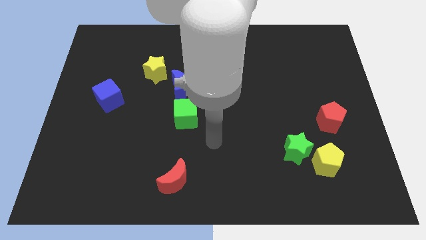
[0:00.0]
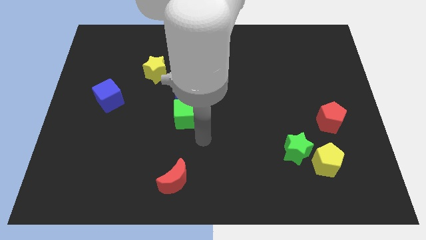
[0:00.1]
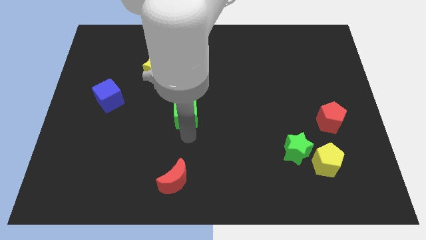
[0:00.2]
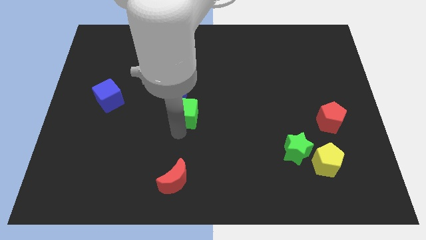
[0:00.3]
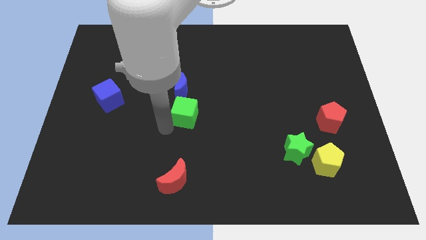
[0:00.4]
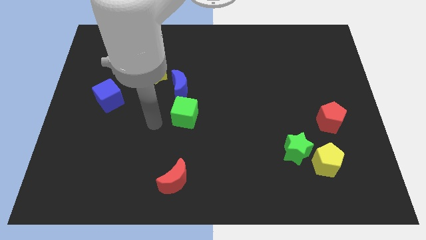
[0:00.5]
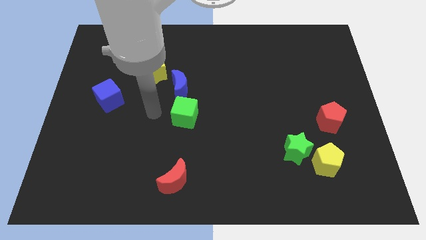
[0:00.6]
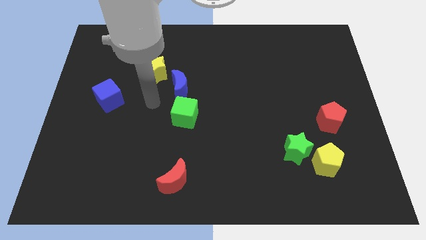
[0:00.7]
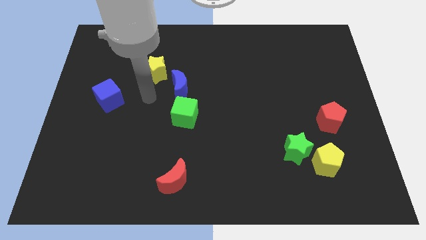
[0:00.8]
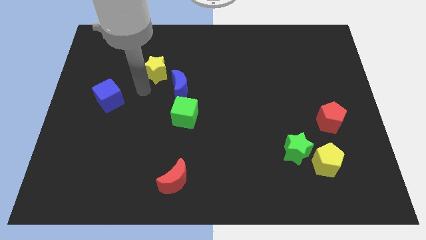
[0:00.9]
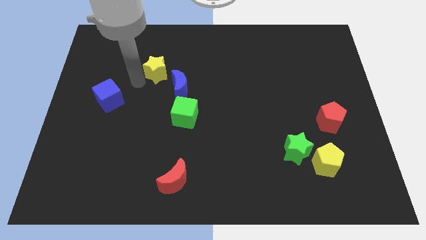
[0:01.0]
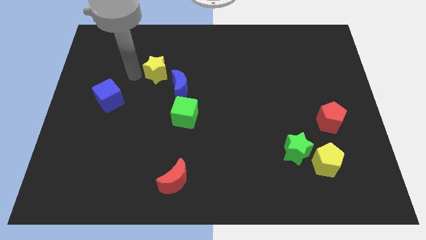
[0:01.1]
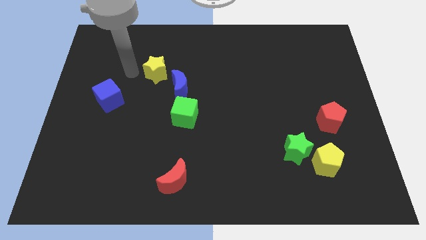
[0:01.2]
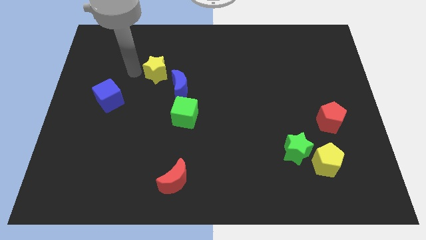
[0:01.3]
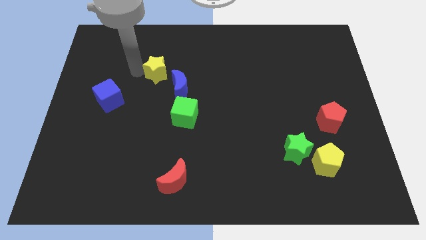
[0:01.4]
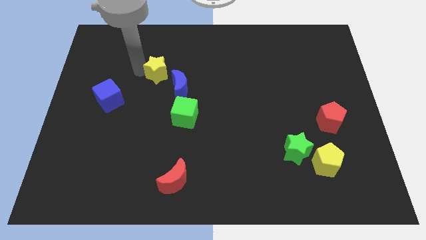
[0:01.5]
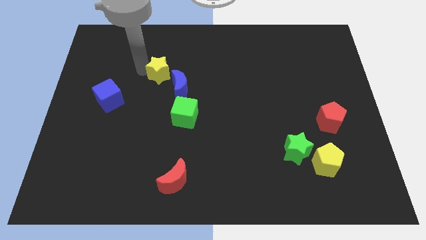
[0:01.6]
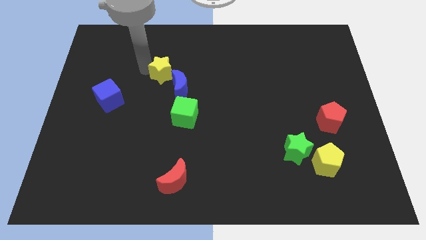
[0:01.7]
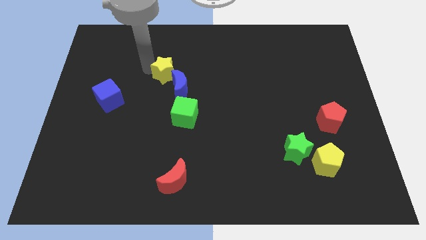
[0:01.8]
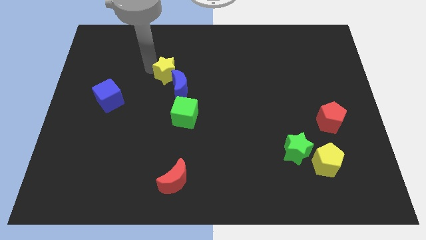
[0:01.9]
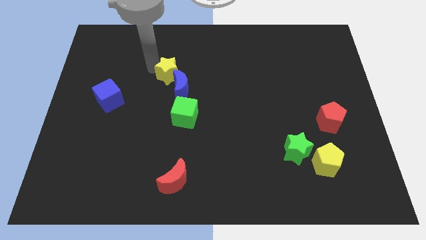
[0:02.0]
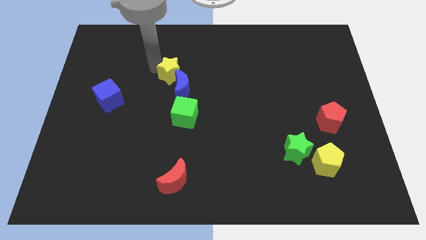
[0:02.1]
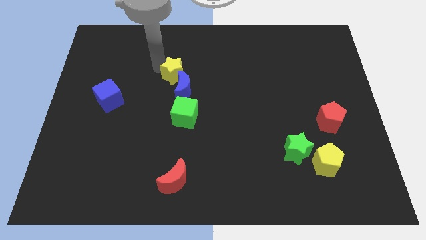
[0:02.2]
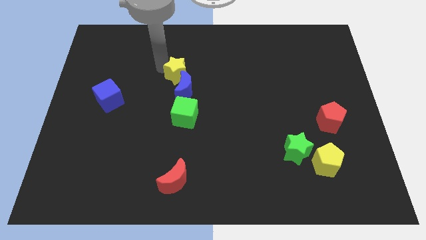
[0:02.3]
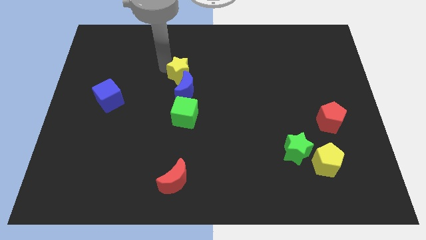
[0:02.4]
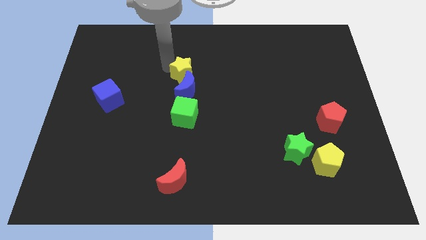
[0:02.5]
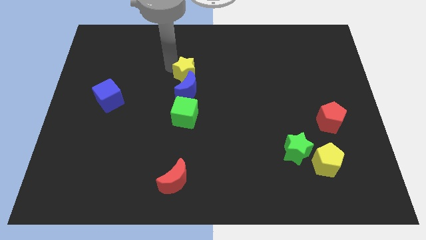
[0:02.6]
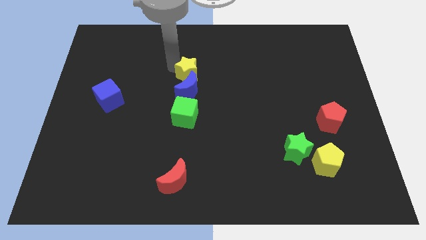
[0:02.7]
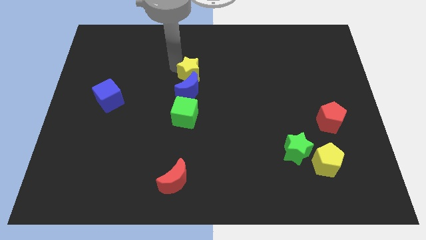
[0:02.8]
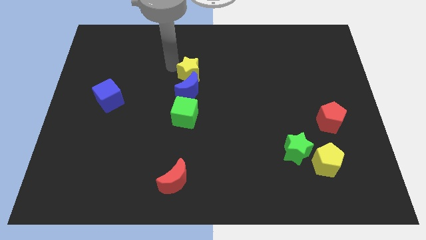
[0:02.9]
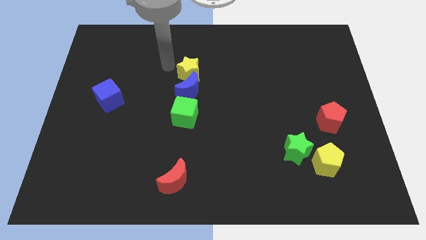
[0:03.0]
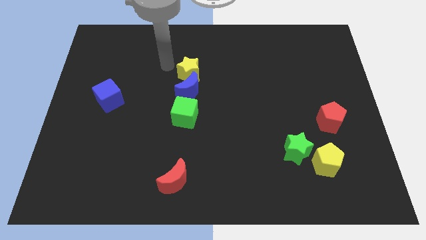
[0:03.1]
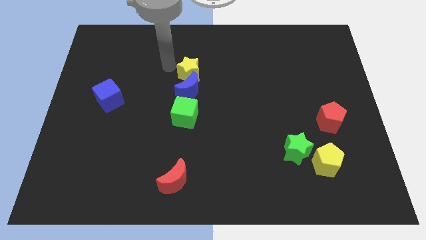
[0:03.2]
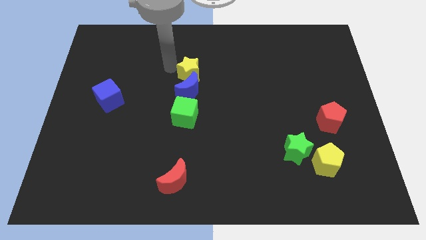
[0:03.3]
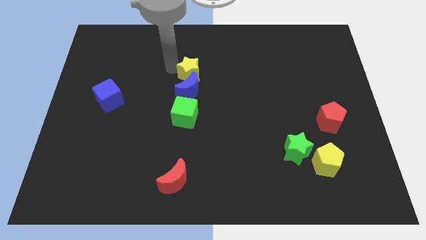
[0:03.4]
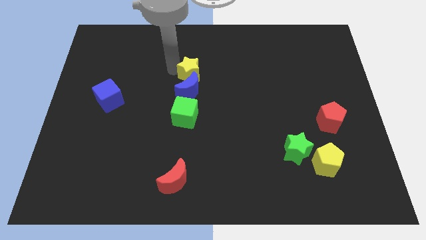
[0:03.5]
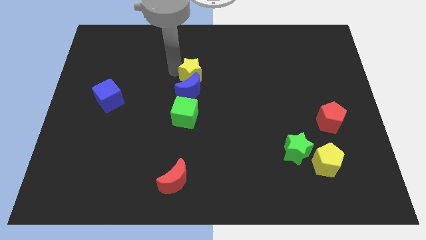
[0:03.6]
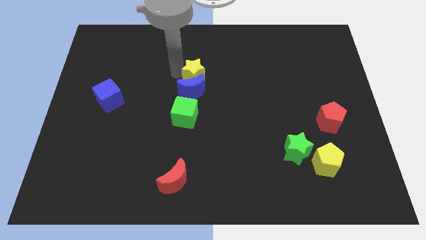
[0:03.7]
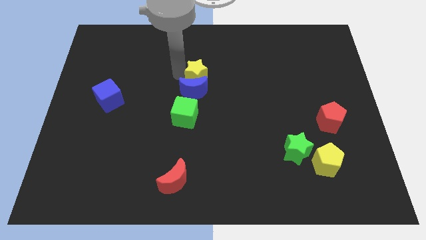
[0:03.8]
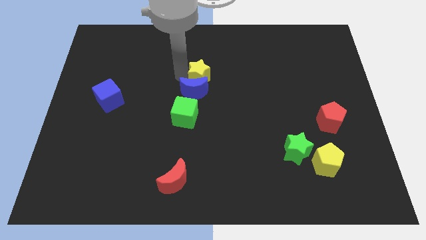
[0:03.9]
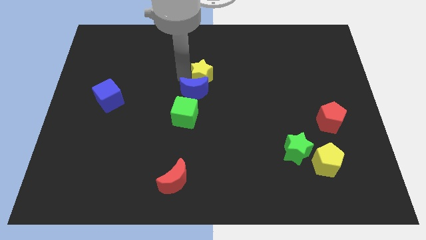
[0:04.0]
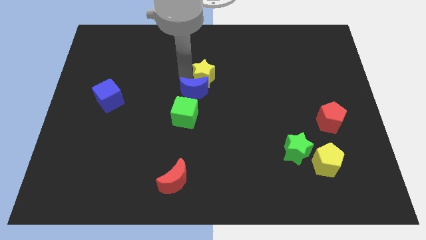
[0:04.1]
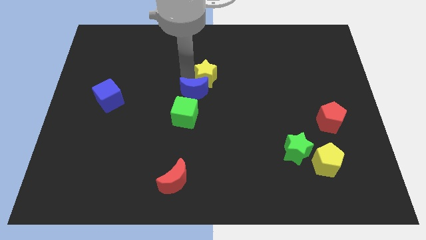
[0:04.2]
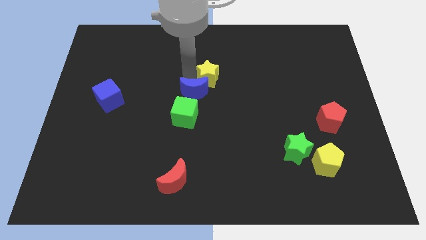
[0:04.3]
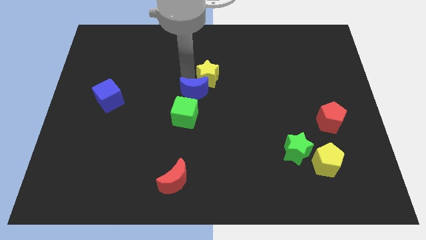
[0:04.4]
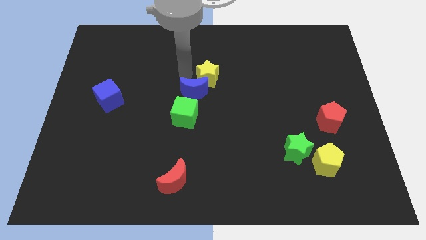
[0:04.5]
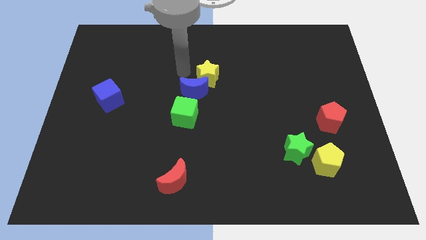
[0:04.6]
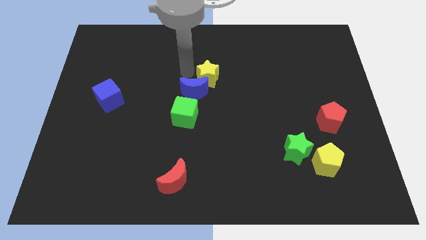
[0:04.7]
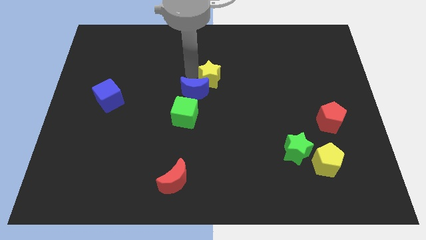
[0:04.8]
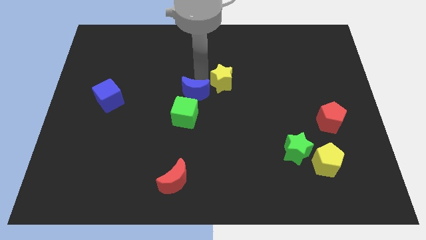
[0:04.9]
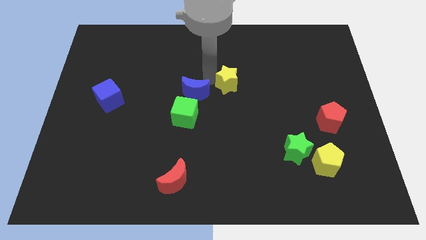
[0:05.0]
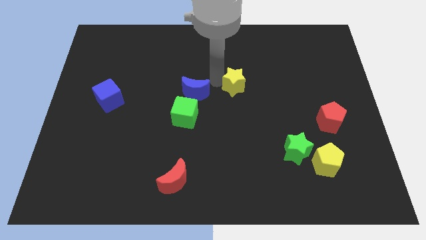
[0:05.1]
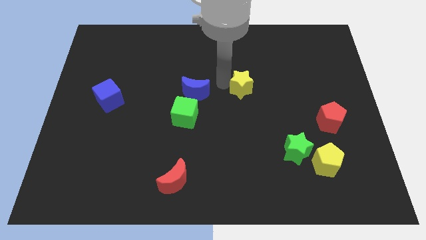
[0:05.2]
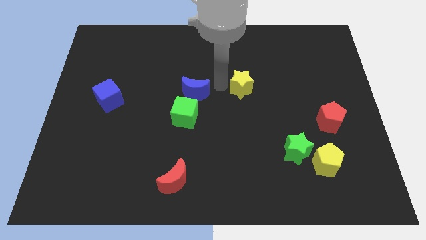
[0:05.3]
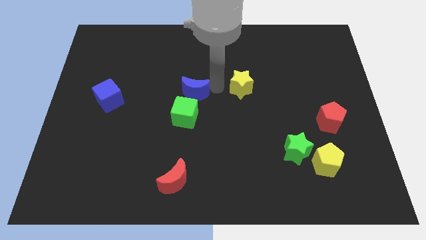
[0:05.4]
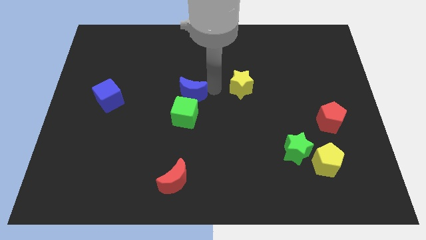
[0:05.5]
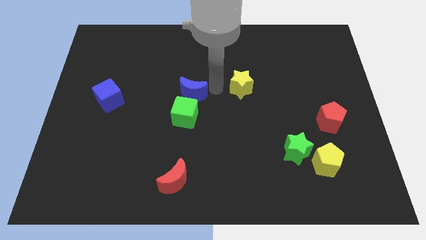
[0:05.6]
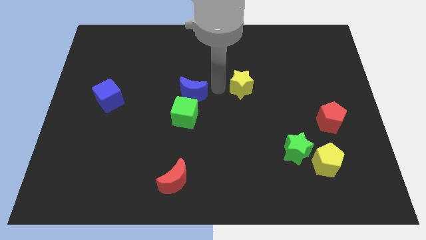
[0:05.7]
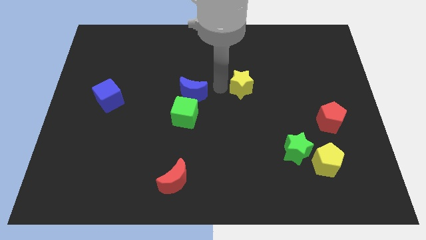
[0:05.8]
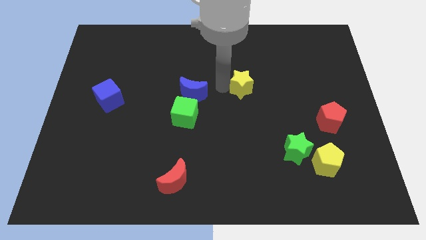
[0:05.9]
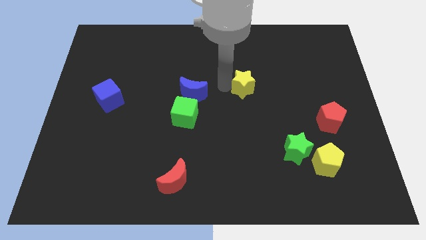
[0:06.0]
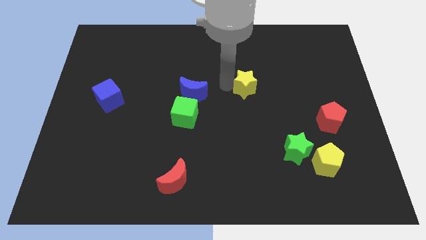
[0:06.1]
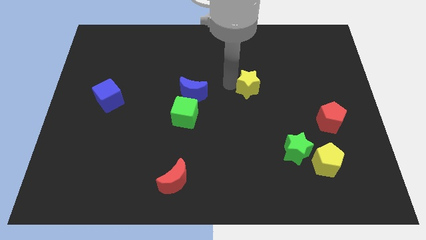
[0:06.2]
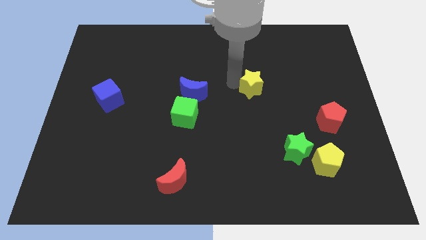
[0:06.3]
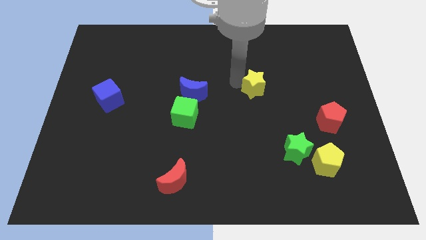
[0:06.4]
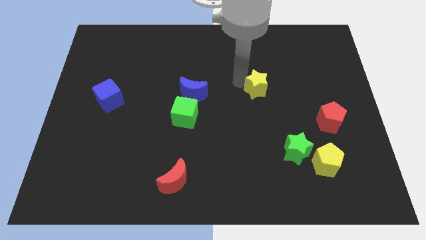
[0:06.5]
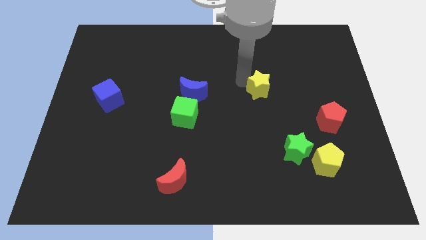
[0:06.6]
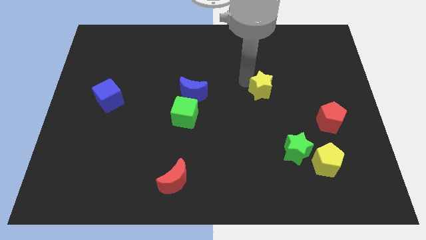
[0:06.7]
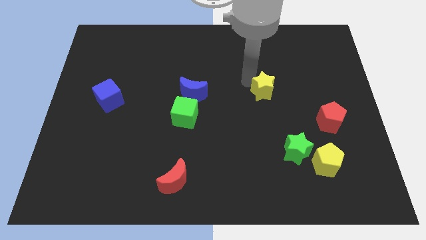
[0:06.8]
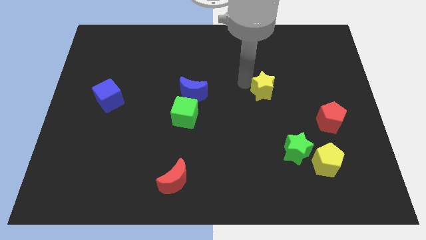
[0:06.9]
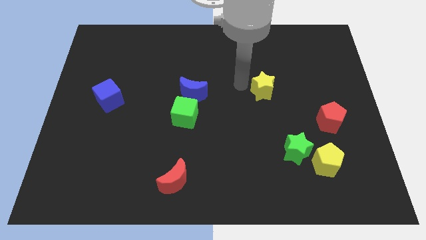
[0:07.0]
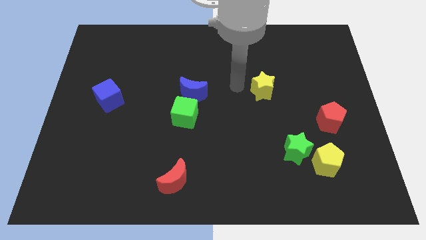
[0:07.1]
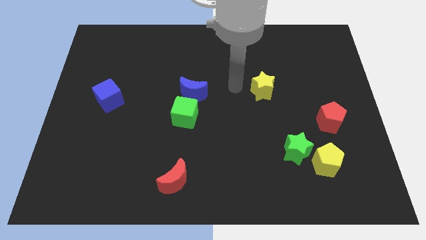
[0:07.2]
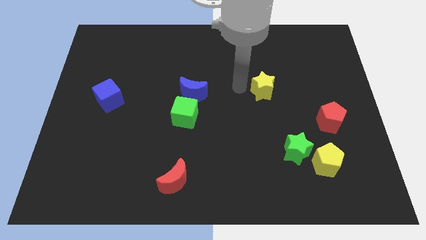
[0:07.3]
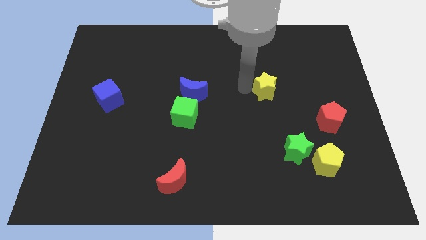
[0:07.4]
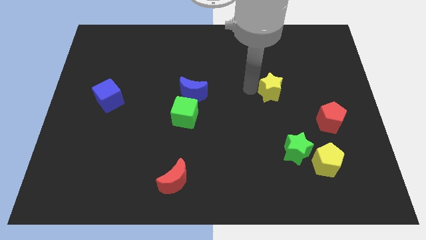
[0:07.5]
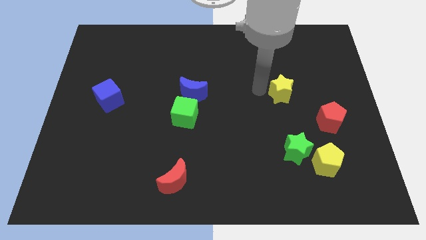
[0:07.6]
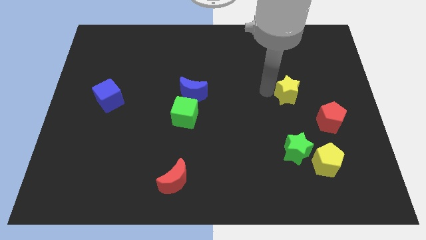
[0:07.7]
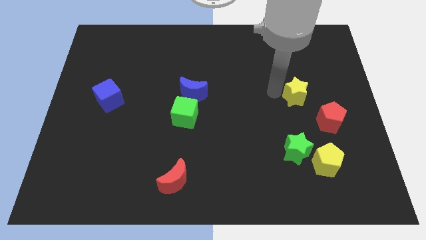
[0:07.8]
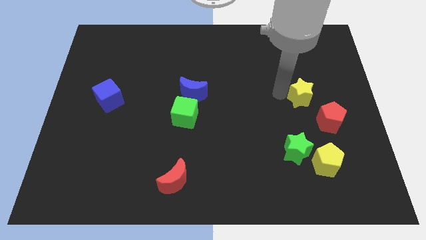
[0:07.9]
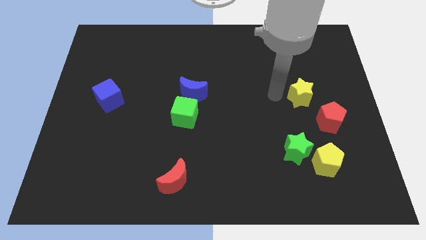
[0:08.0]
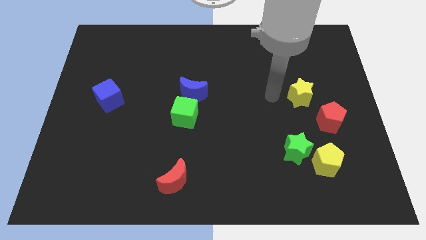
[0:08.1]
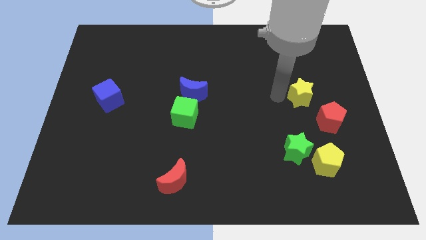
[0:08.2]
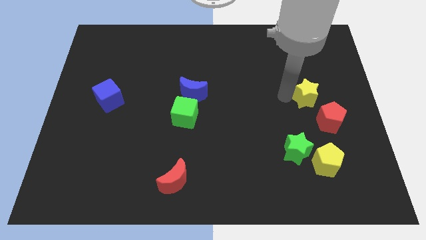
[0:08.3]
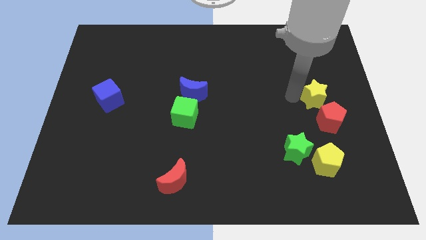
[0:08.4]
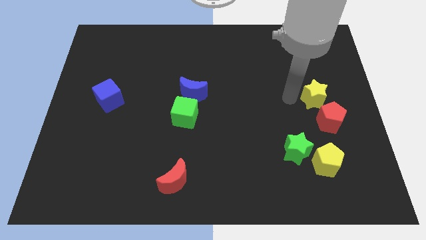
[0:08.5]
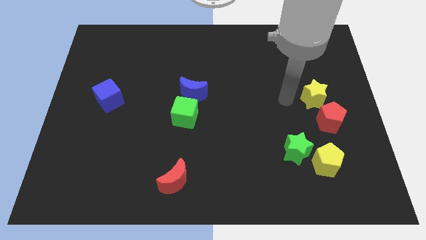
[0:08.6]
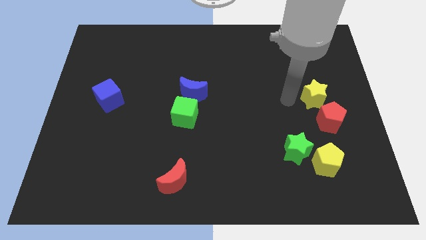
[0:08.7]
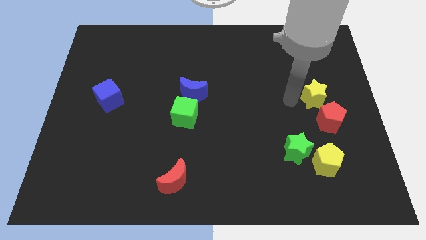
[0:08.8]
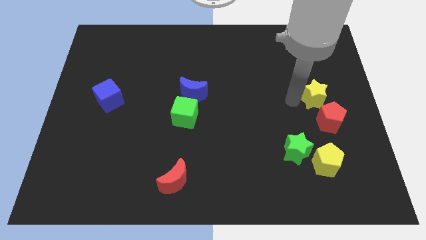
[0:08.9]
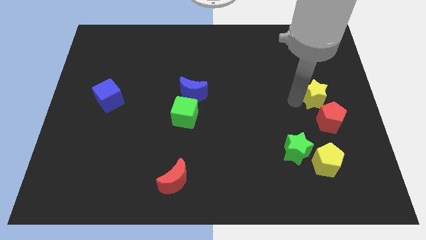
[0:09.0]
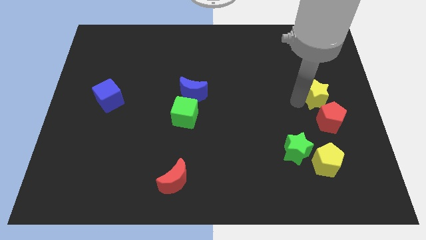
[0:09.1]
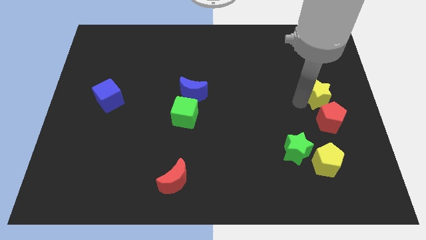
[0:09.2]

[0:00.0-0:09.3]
slide the yellow star to the center right
